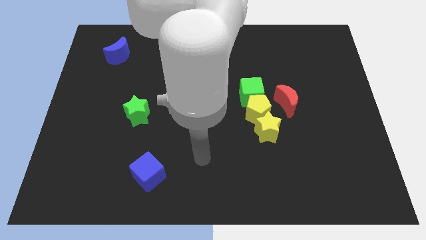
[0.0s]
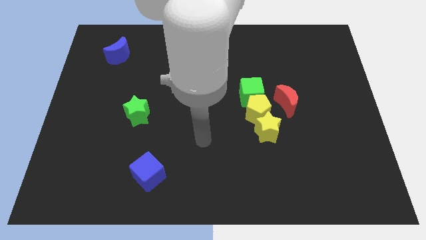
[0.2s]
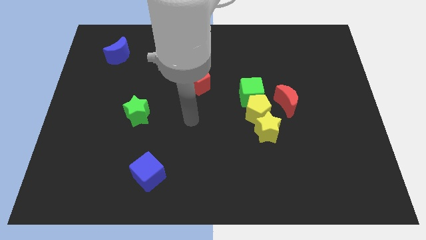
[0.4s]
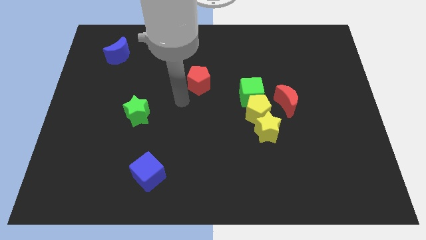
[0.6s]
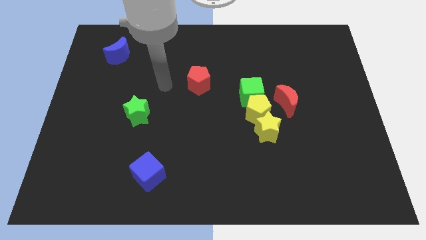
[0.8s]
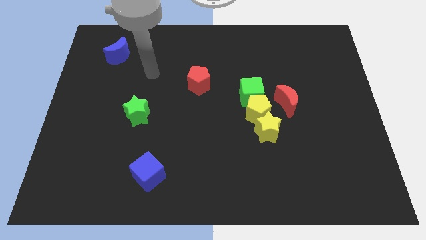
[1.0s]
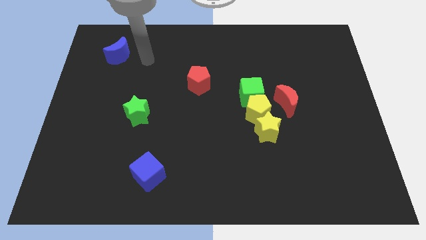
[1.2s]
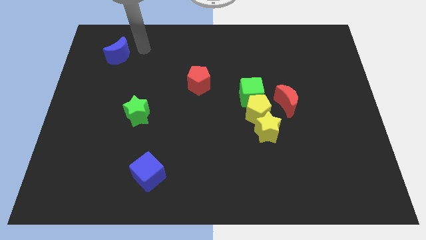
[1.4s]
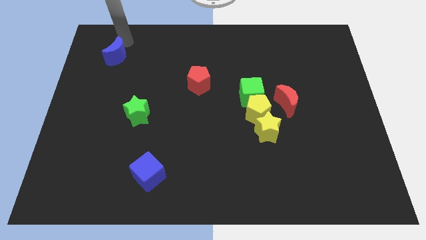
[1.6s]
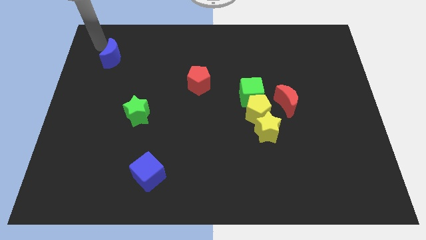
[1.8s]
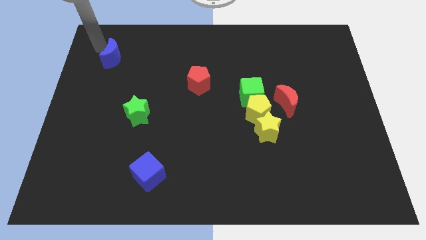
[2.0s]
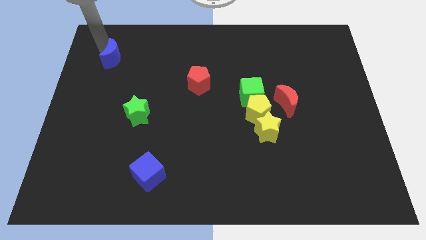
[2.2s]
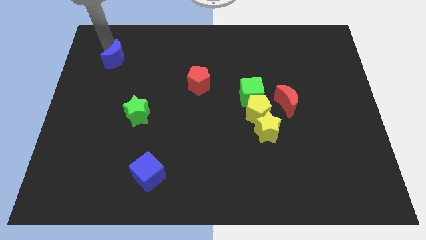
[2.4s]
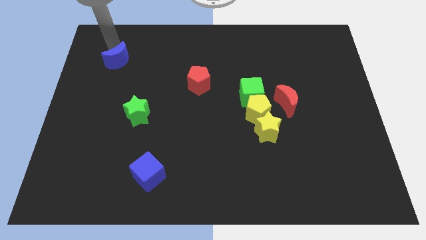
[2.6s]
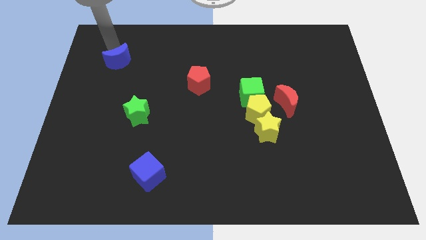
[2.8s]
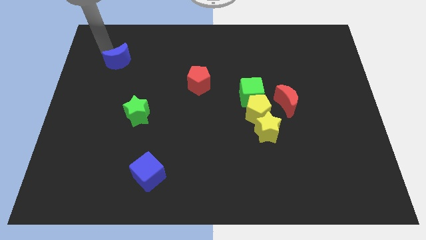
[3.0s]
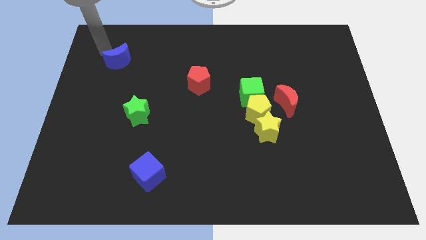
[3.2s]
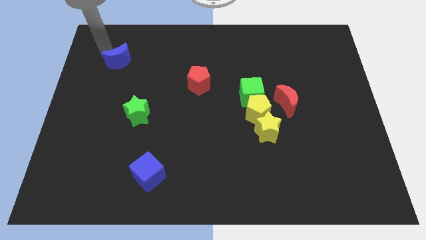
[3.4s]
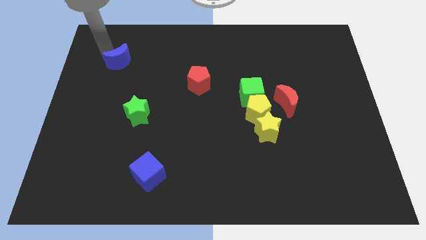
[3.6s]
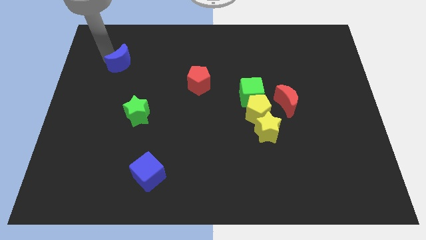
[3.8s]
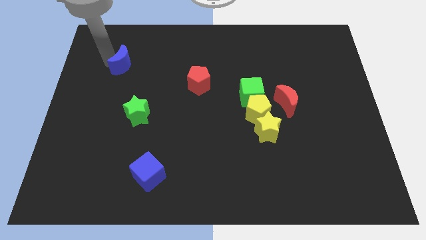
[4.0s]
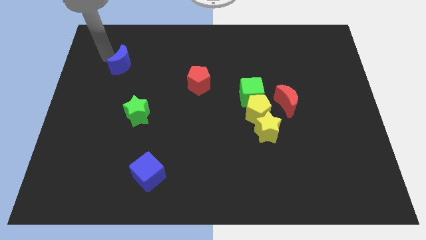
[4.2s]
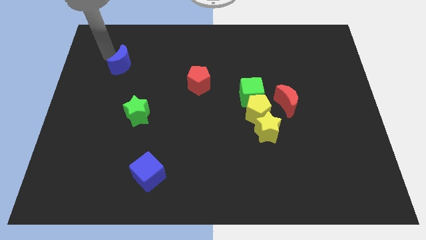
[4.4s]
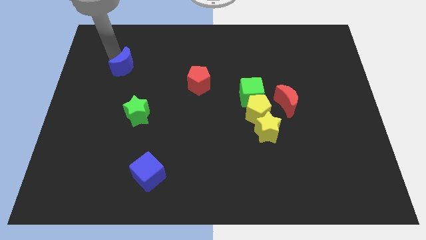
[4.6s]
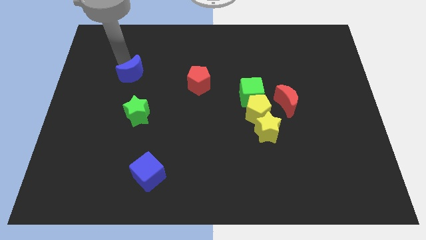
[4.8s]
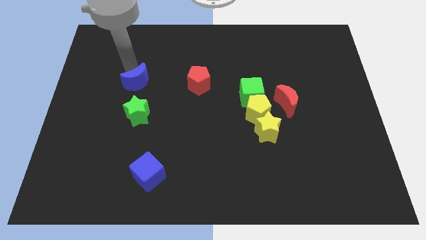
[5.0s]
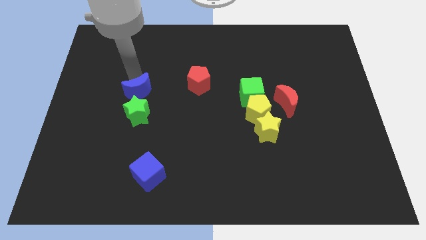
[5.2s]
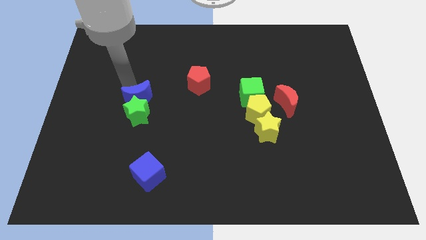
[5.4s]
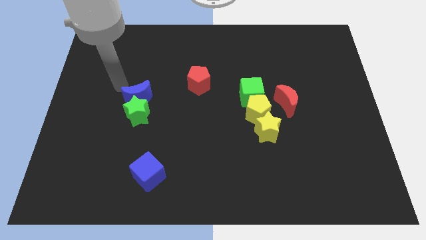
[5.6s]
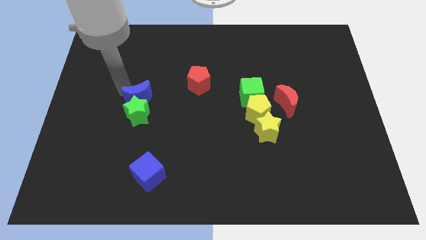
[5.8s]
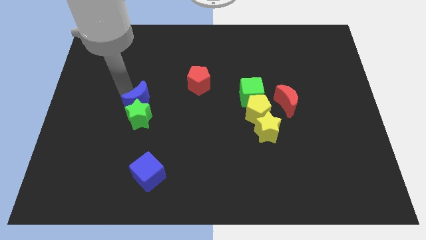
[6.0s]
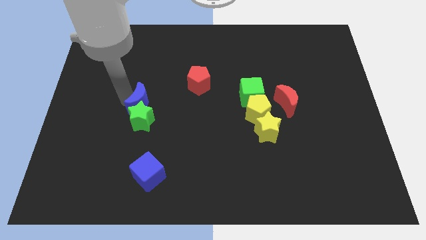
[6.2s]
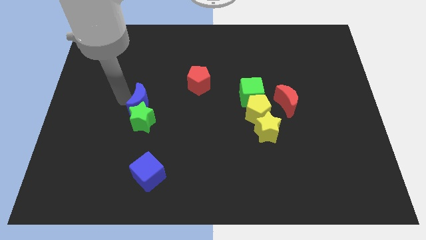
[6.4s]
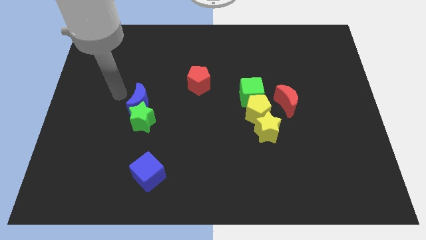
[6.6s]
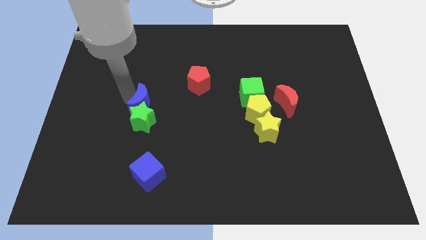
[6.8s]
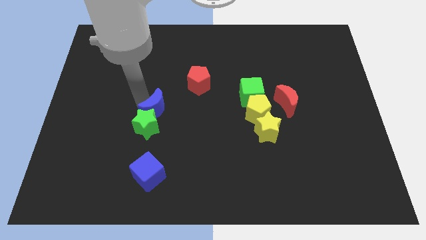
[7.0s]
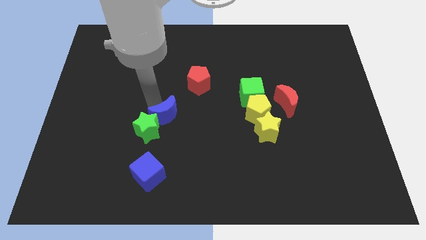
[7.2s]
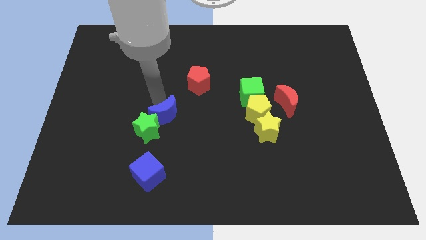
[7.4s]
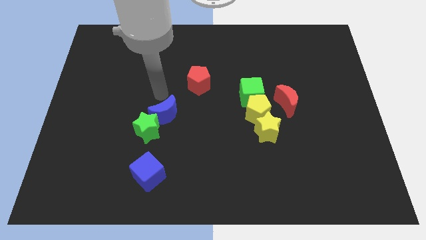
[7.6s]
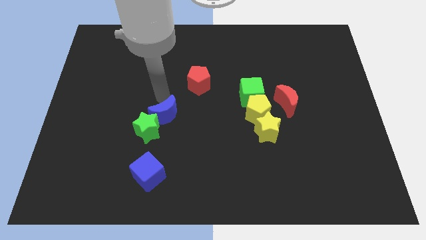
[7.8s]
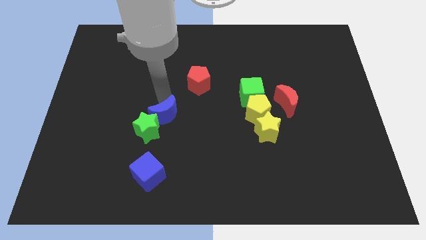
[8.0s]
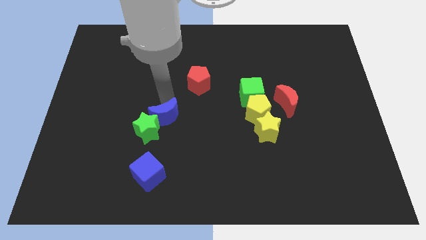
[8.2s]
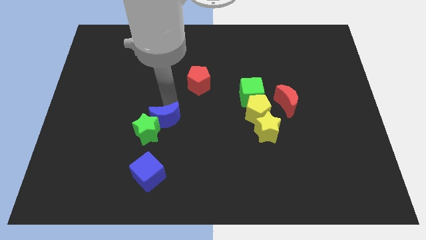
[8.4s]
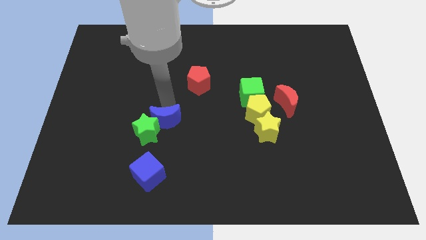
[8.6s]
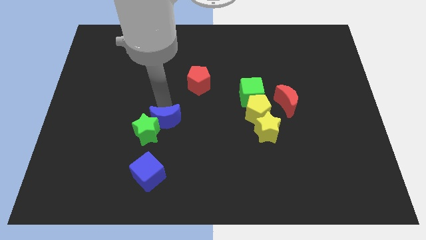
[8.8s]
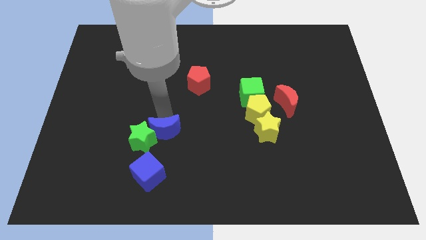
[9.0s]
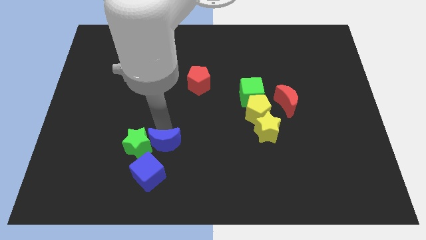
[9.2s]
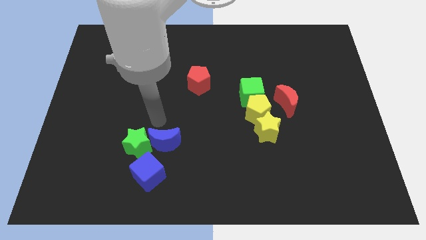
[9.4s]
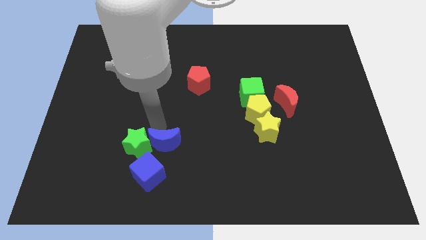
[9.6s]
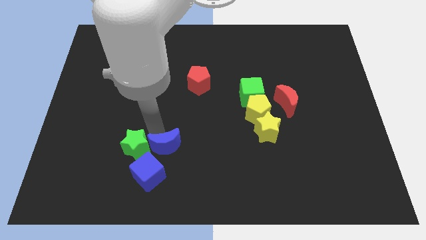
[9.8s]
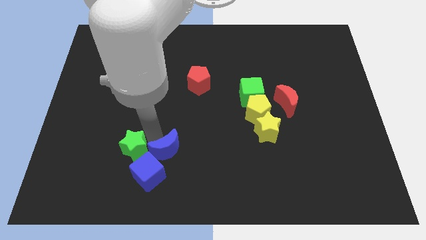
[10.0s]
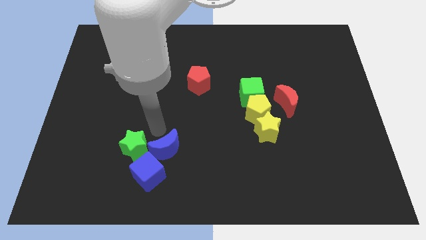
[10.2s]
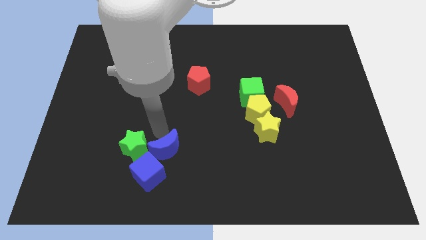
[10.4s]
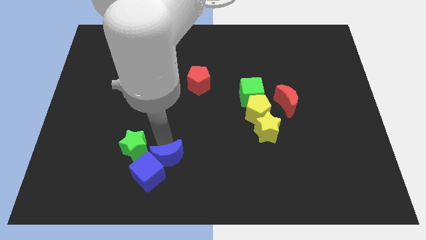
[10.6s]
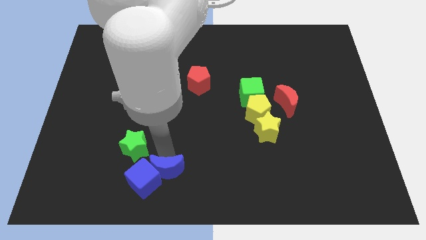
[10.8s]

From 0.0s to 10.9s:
put the blue moon to the bottom side

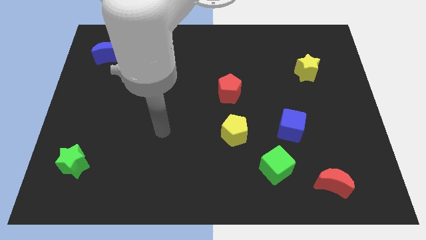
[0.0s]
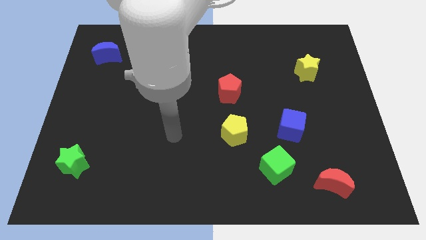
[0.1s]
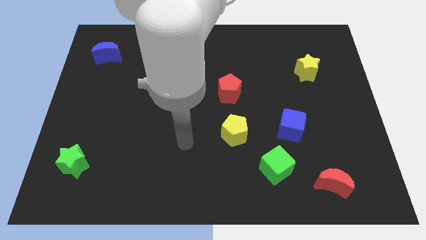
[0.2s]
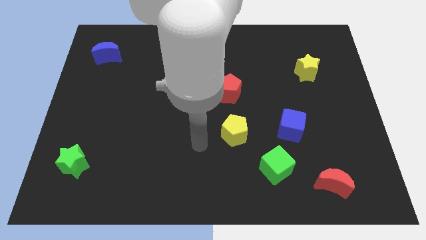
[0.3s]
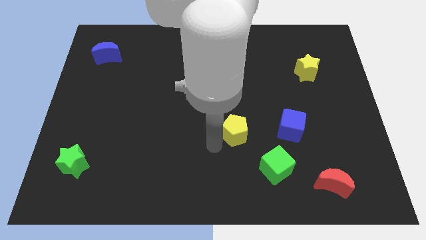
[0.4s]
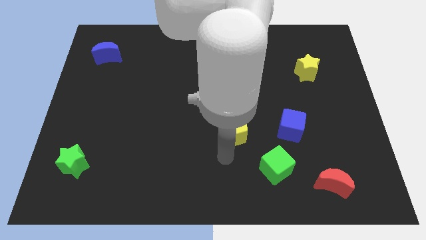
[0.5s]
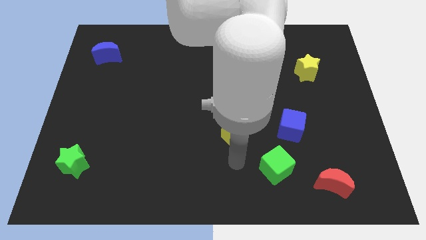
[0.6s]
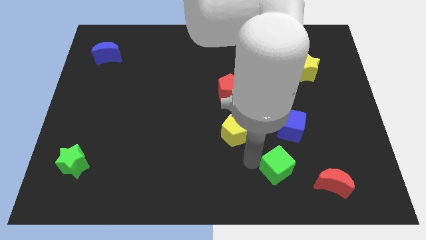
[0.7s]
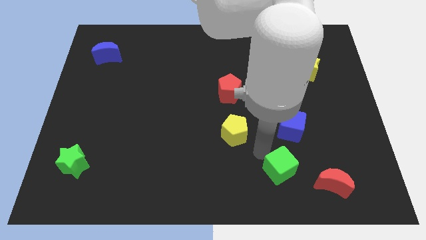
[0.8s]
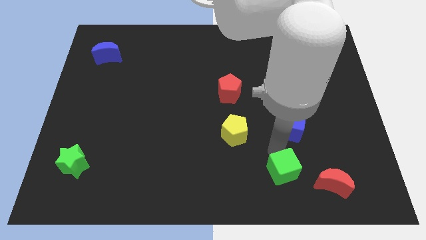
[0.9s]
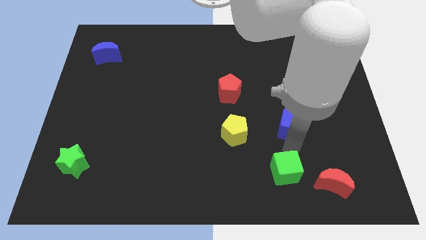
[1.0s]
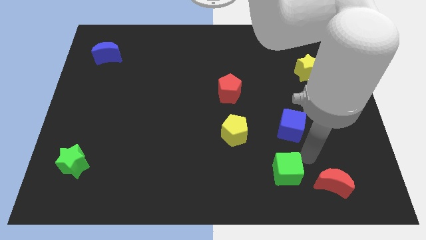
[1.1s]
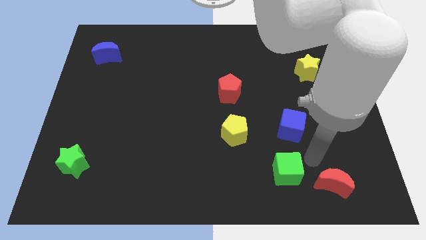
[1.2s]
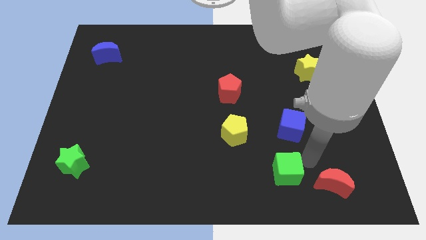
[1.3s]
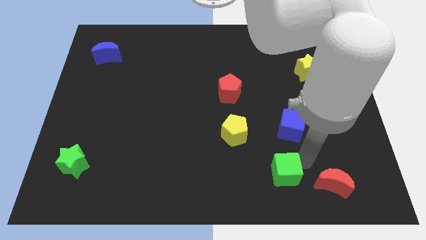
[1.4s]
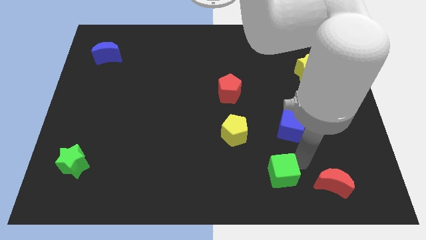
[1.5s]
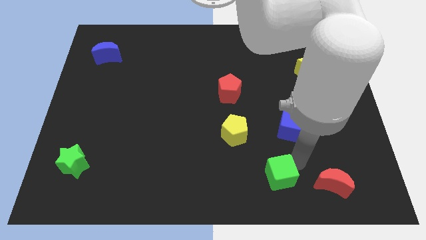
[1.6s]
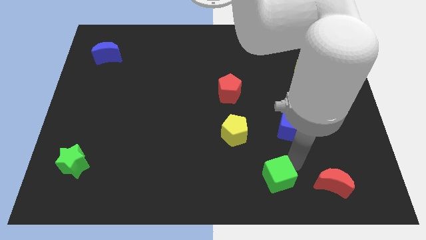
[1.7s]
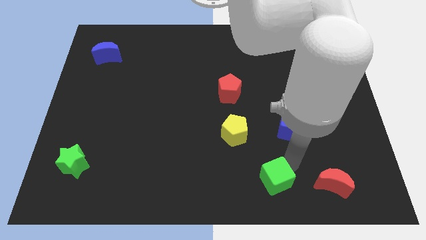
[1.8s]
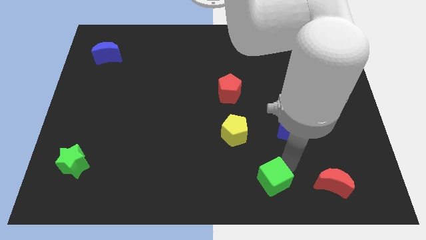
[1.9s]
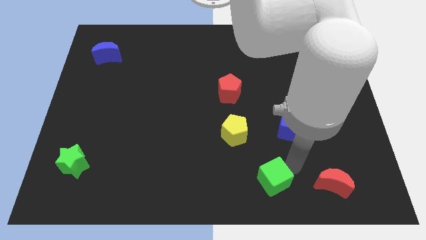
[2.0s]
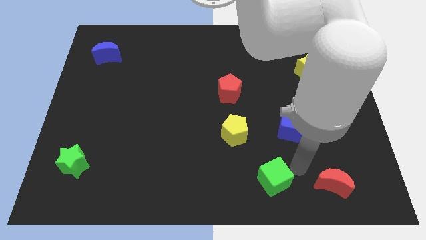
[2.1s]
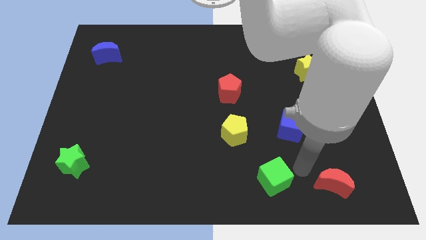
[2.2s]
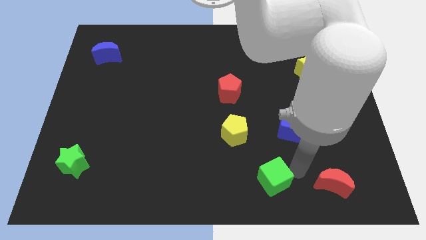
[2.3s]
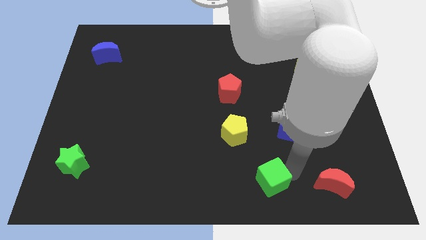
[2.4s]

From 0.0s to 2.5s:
push the green cube to the bottom side
